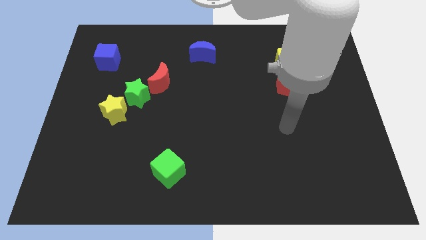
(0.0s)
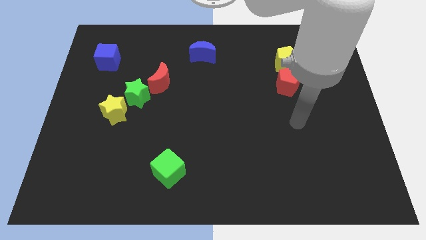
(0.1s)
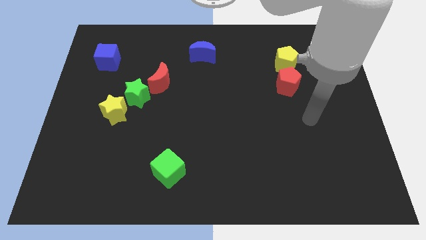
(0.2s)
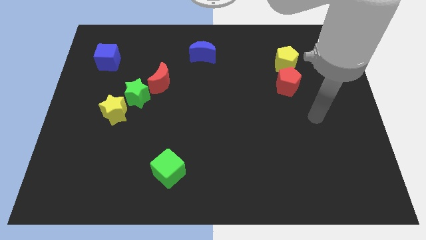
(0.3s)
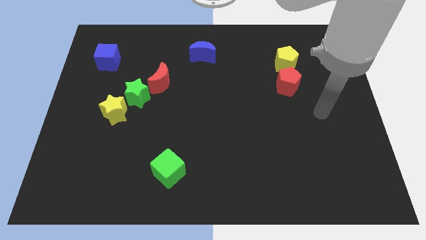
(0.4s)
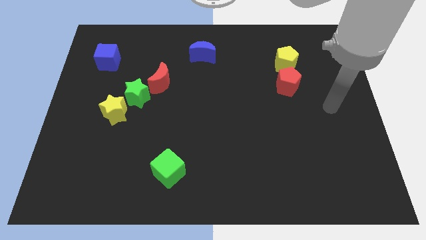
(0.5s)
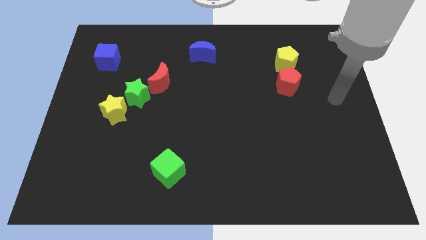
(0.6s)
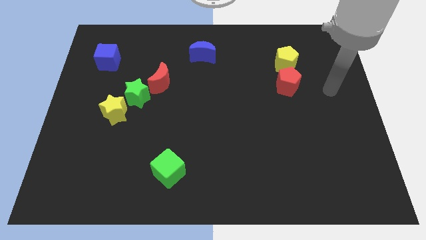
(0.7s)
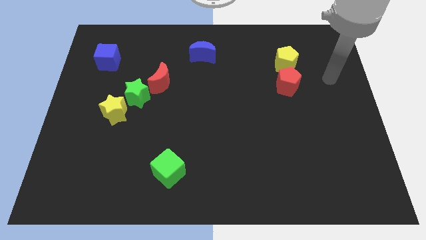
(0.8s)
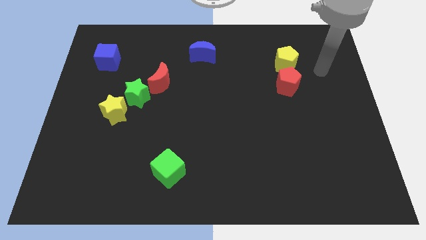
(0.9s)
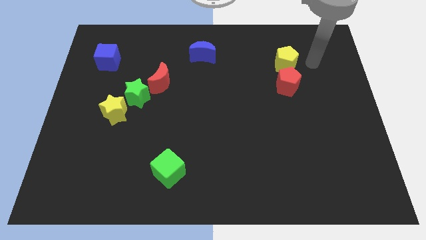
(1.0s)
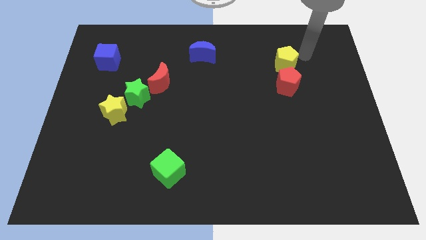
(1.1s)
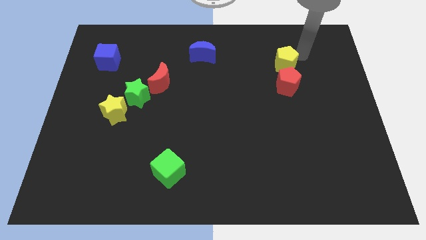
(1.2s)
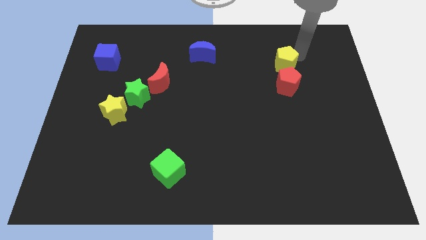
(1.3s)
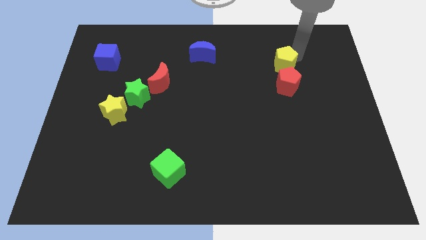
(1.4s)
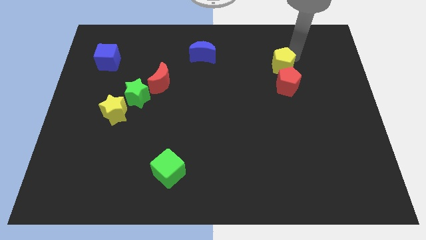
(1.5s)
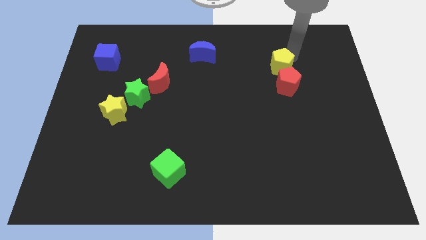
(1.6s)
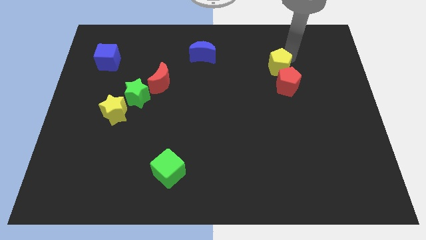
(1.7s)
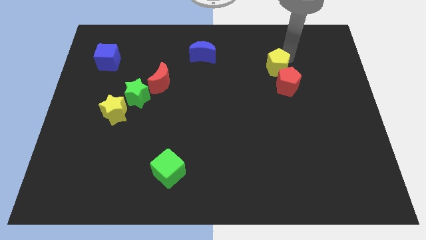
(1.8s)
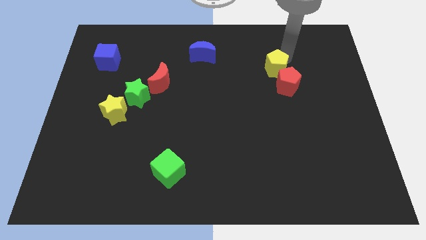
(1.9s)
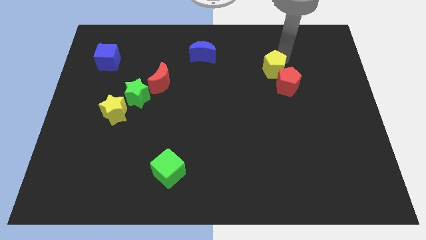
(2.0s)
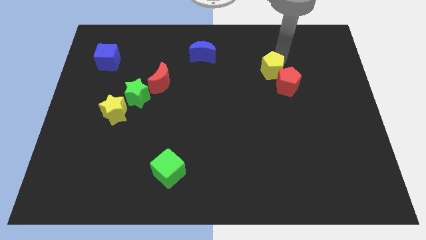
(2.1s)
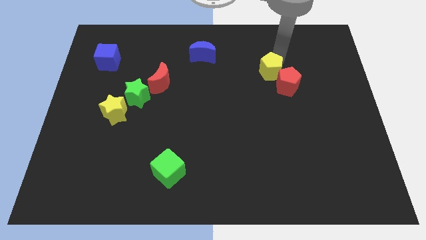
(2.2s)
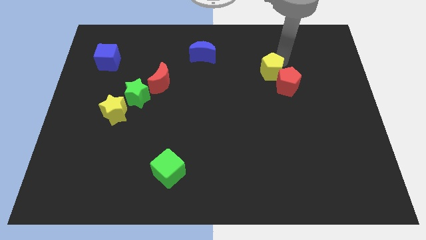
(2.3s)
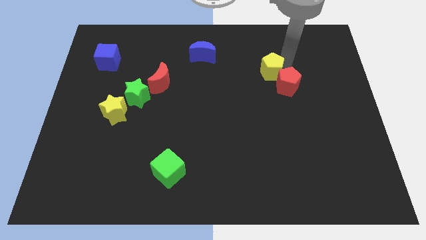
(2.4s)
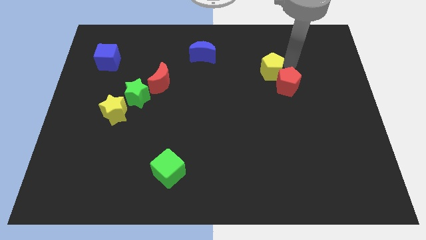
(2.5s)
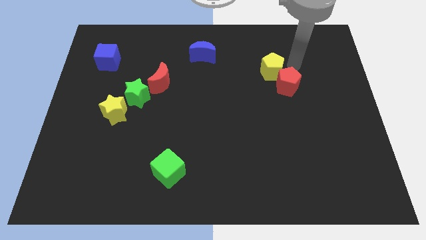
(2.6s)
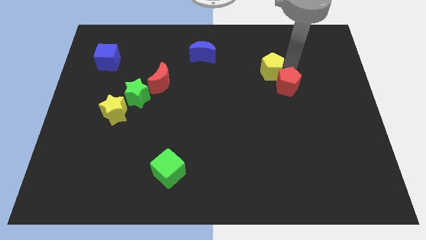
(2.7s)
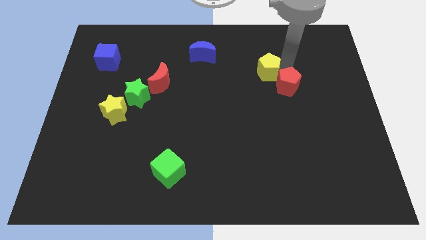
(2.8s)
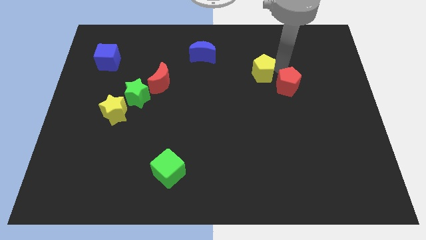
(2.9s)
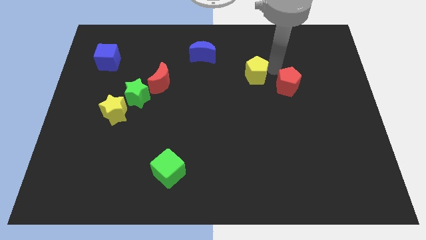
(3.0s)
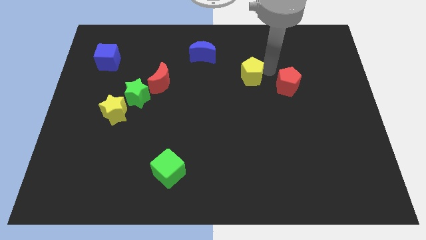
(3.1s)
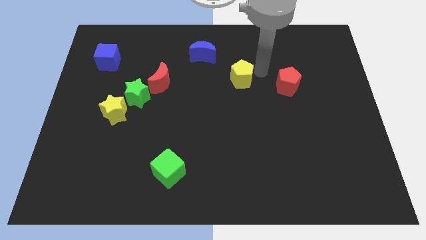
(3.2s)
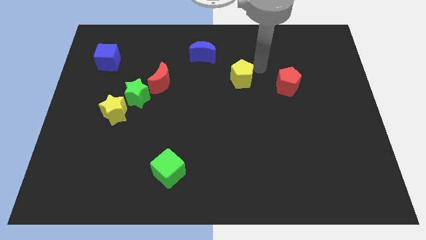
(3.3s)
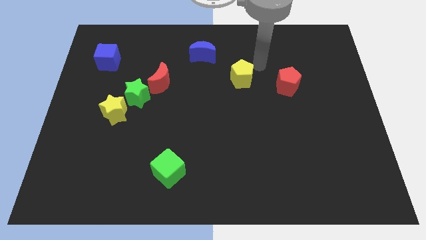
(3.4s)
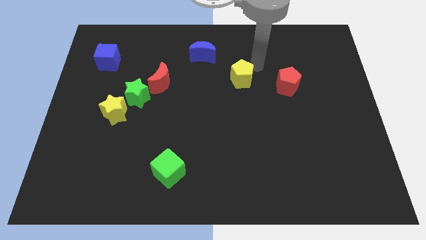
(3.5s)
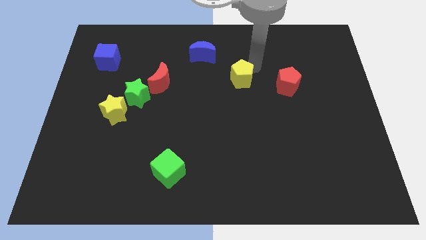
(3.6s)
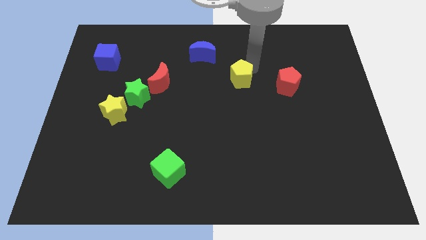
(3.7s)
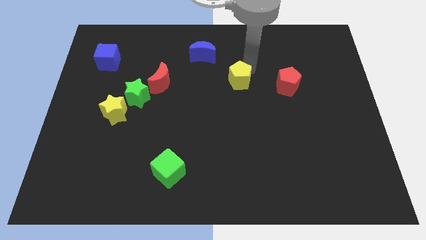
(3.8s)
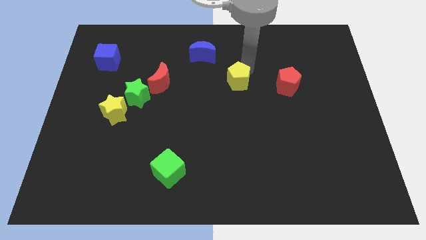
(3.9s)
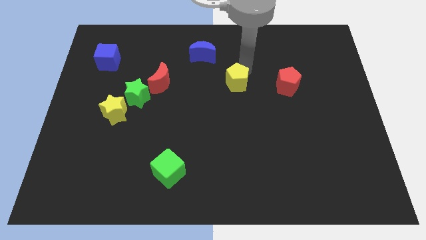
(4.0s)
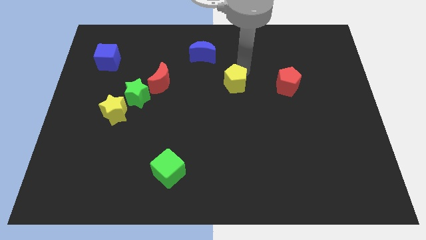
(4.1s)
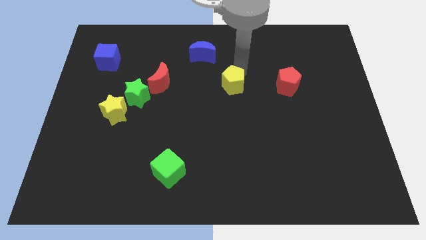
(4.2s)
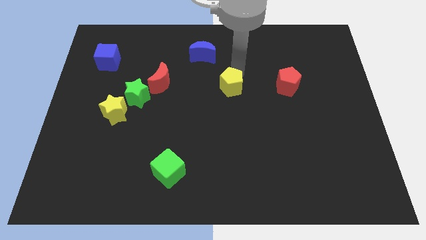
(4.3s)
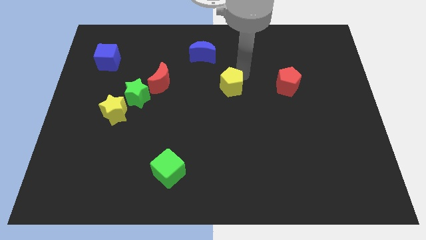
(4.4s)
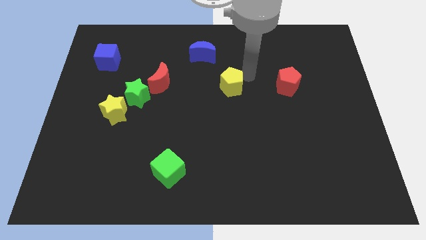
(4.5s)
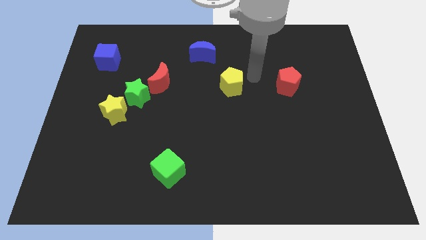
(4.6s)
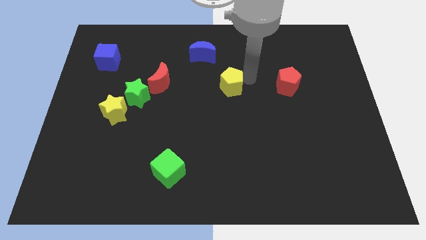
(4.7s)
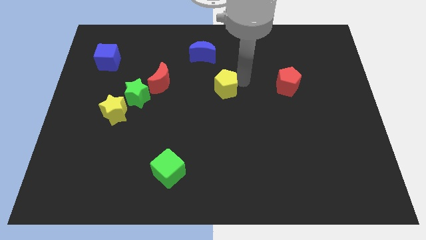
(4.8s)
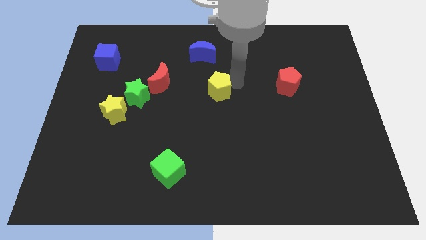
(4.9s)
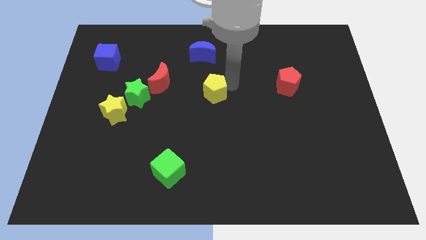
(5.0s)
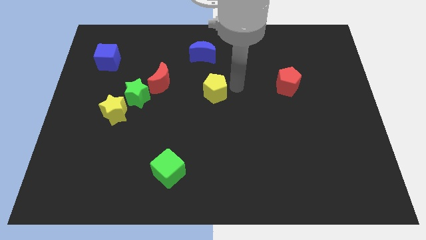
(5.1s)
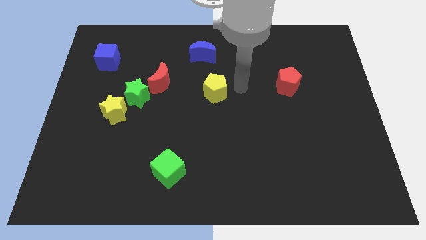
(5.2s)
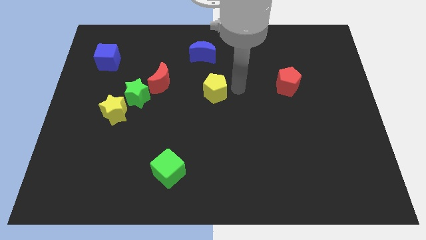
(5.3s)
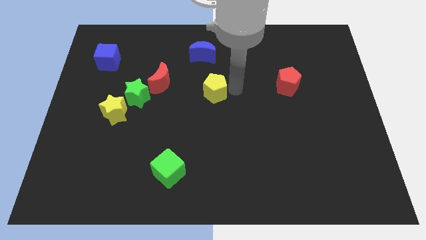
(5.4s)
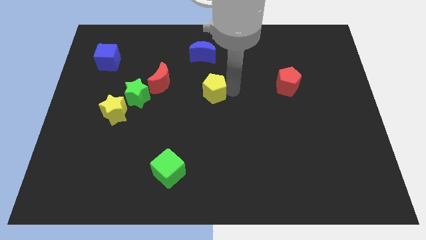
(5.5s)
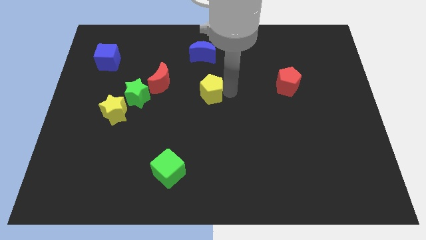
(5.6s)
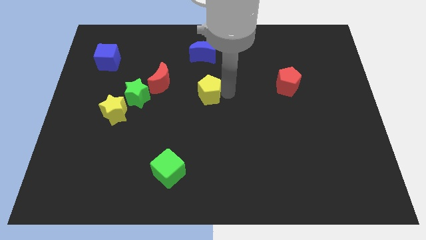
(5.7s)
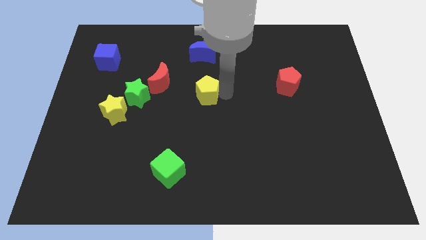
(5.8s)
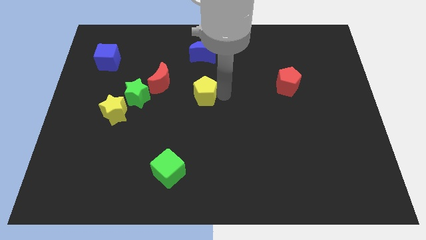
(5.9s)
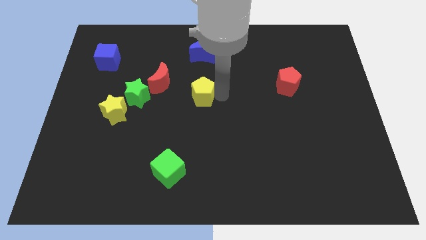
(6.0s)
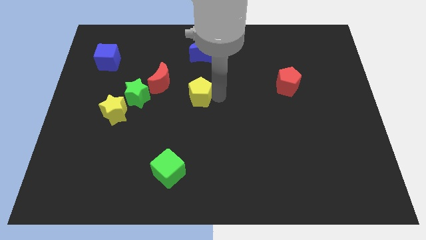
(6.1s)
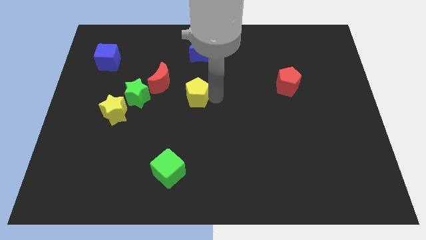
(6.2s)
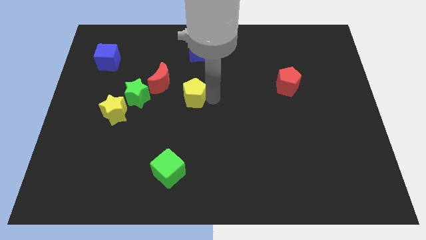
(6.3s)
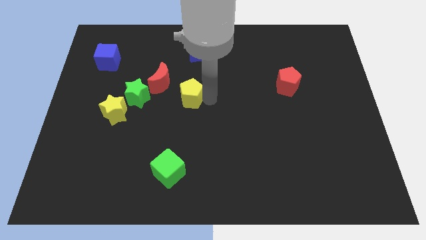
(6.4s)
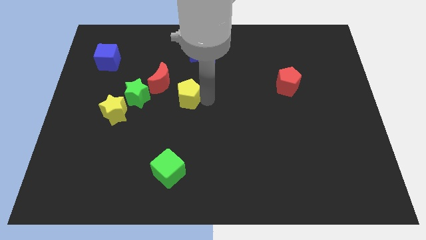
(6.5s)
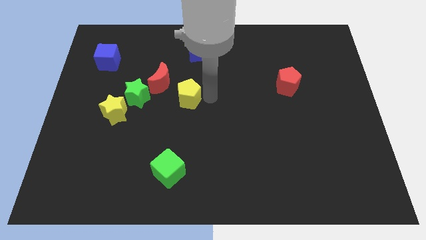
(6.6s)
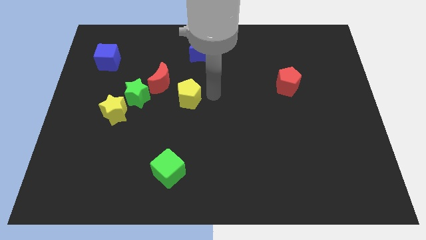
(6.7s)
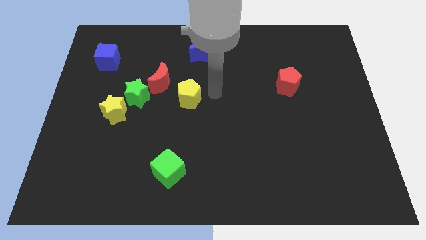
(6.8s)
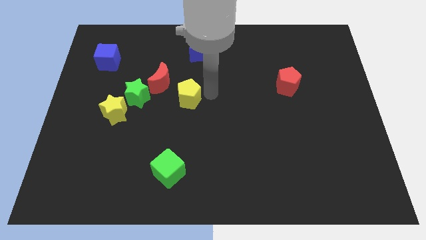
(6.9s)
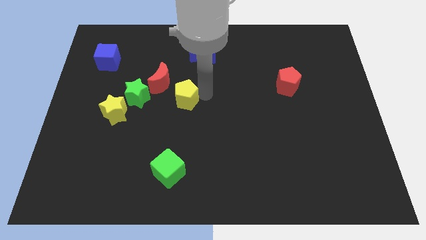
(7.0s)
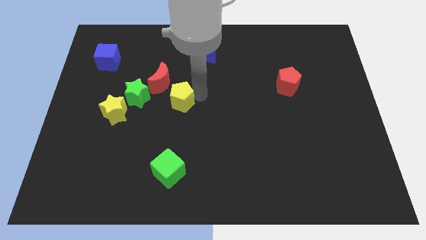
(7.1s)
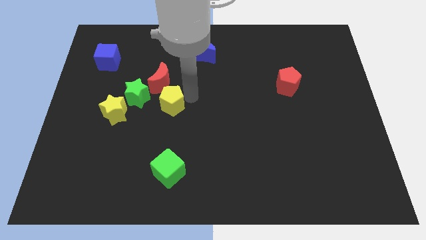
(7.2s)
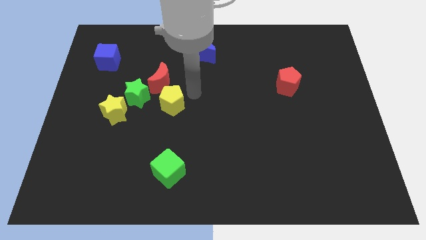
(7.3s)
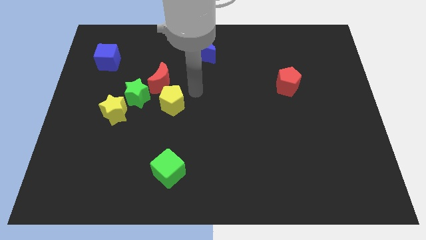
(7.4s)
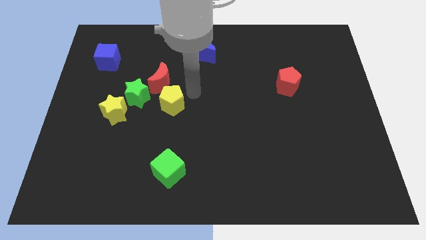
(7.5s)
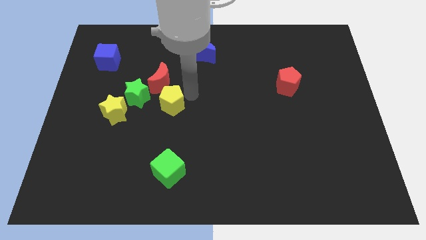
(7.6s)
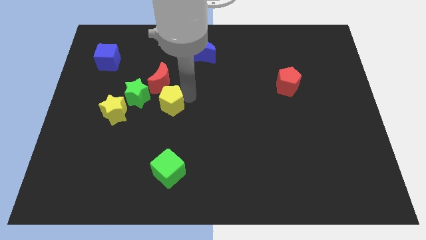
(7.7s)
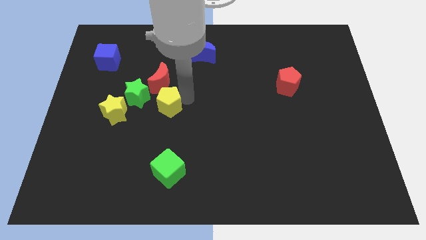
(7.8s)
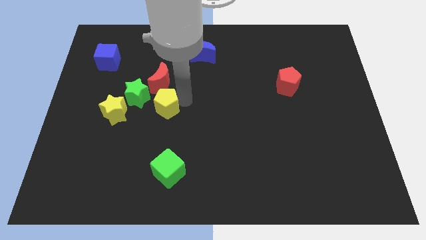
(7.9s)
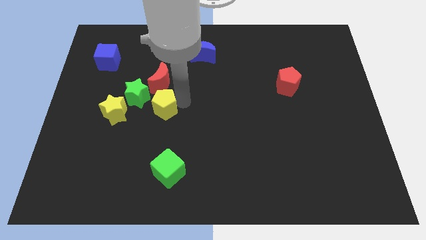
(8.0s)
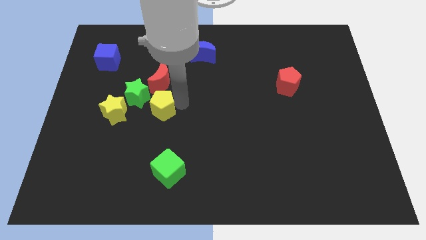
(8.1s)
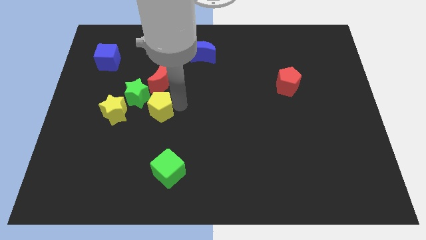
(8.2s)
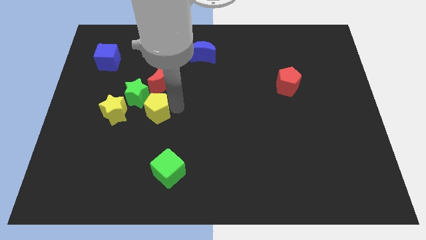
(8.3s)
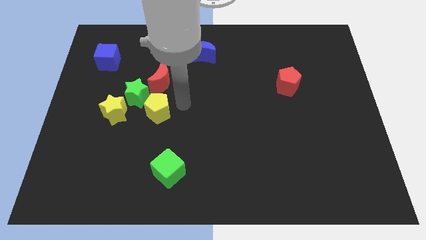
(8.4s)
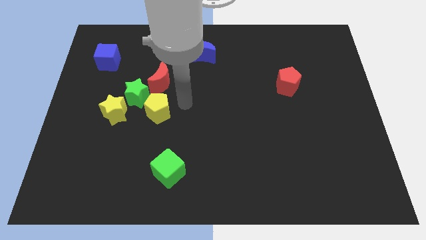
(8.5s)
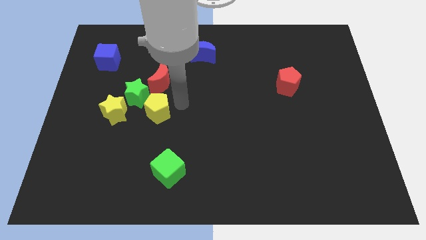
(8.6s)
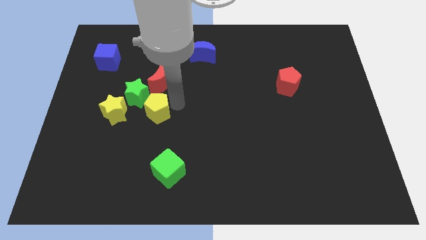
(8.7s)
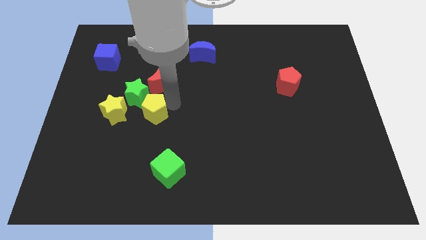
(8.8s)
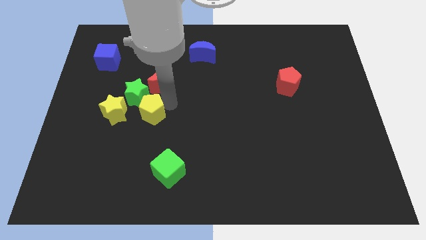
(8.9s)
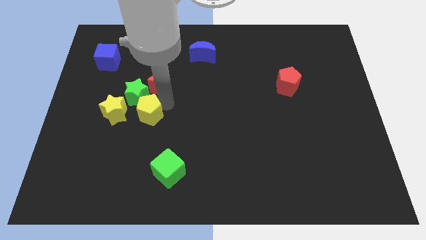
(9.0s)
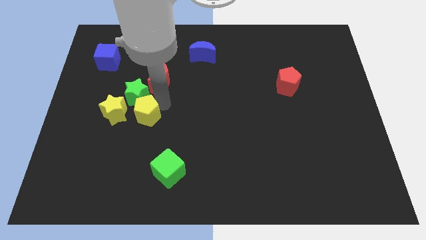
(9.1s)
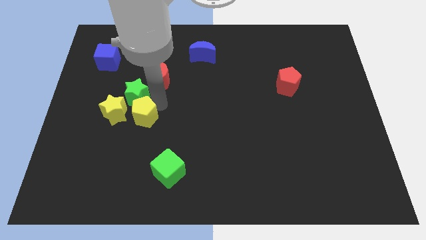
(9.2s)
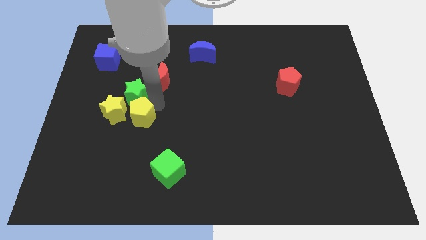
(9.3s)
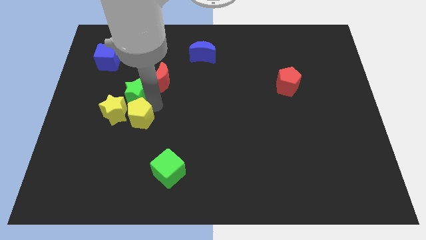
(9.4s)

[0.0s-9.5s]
put the yellow pentagon next to the yellow star
